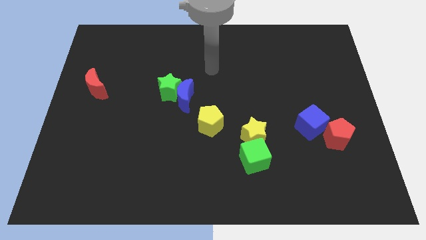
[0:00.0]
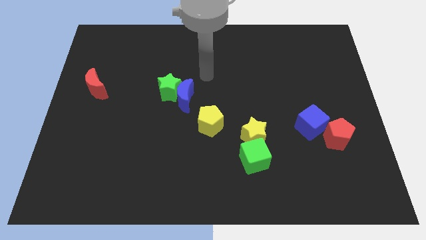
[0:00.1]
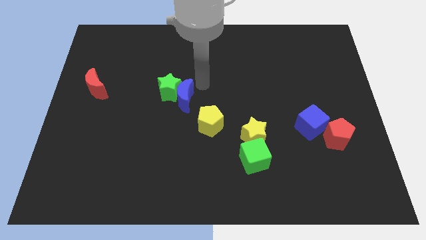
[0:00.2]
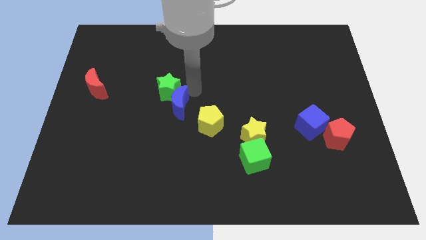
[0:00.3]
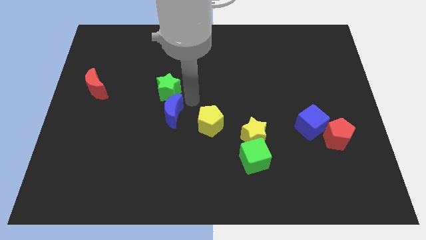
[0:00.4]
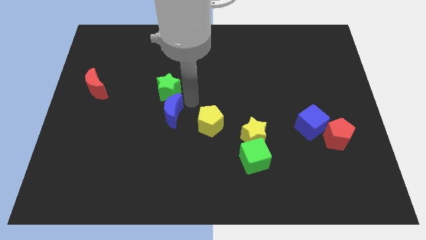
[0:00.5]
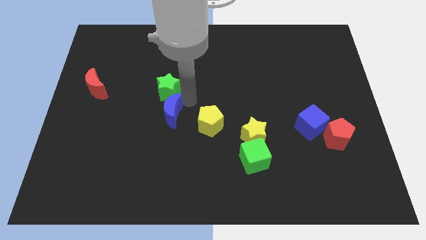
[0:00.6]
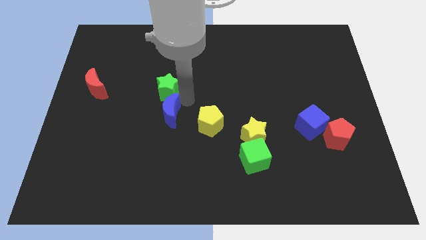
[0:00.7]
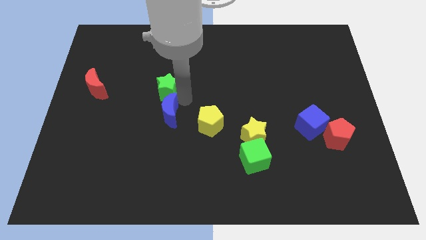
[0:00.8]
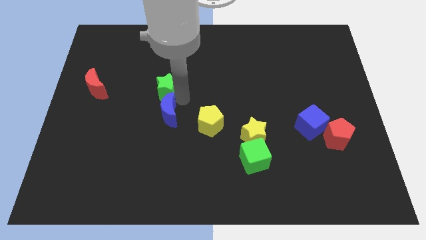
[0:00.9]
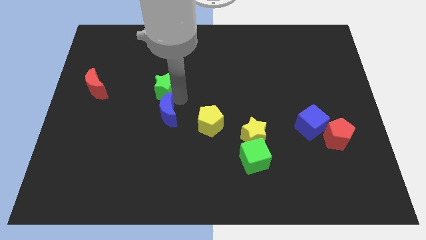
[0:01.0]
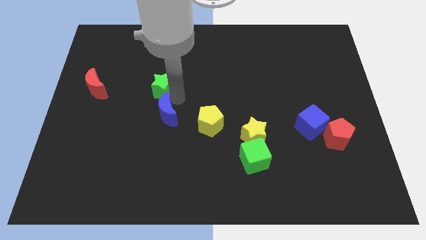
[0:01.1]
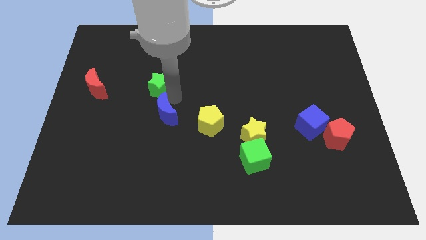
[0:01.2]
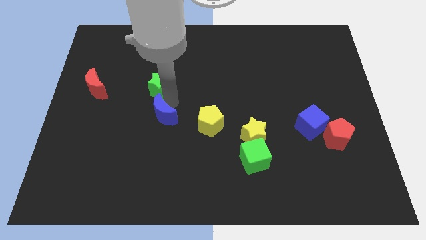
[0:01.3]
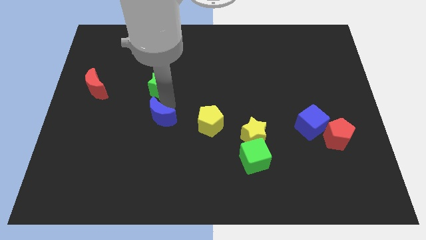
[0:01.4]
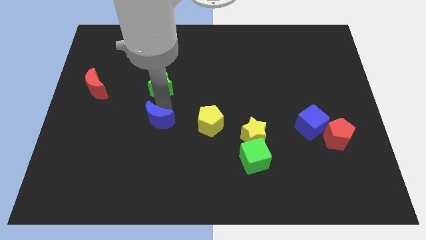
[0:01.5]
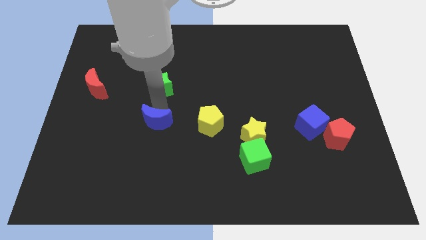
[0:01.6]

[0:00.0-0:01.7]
move the green star away from the blue moon

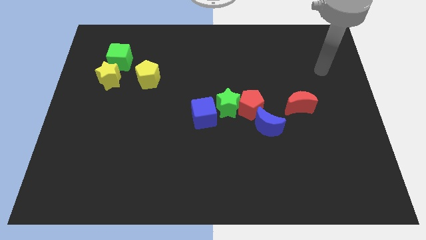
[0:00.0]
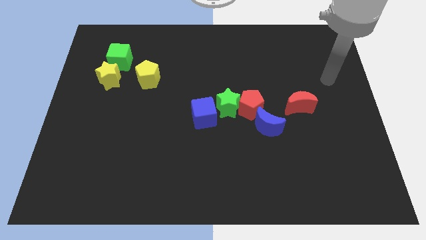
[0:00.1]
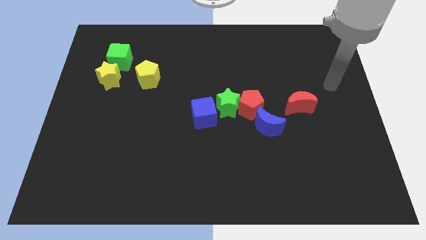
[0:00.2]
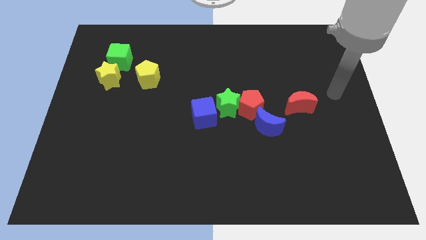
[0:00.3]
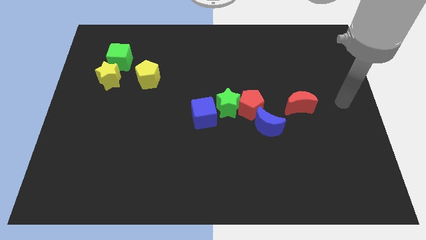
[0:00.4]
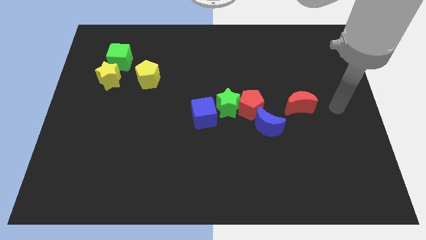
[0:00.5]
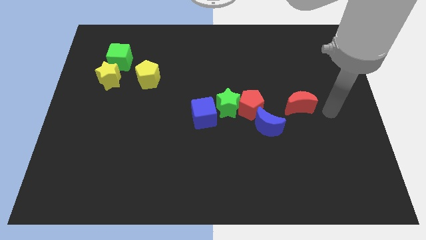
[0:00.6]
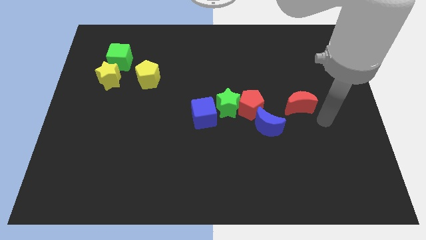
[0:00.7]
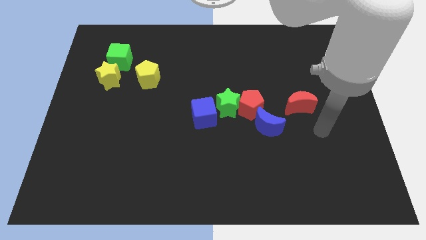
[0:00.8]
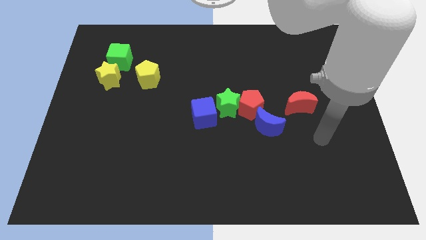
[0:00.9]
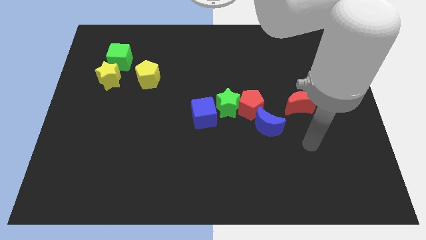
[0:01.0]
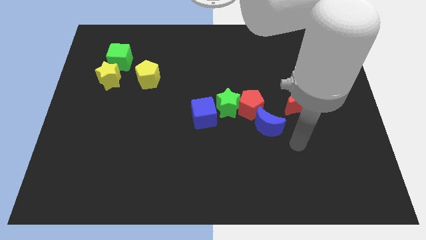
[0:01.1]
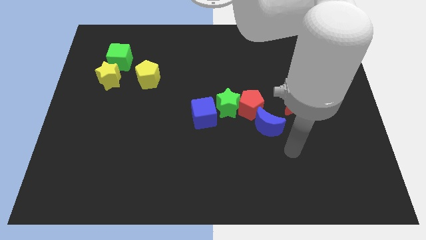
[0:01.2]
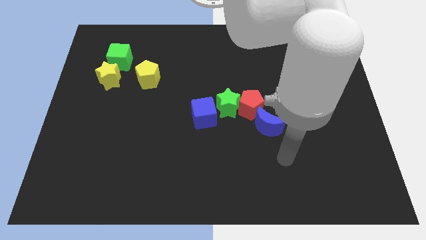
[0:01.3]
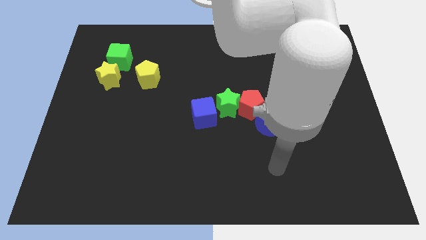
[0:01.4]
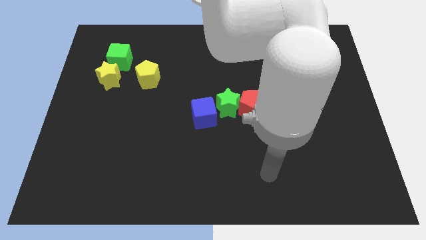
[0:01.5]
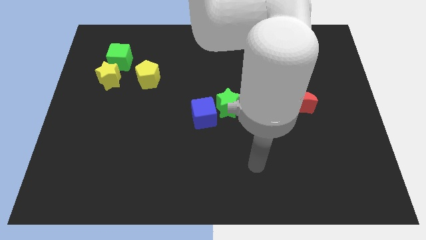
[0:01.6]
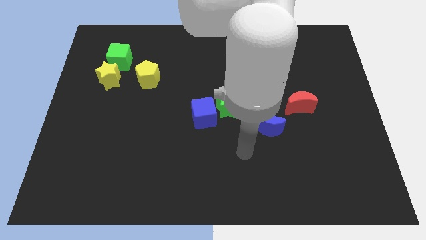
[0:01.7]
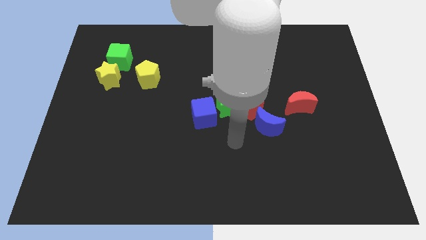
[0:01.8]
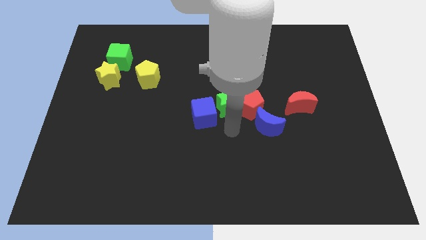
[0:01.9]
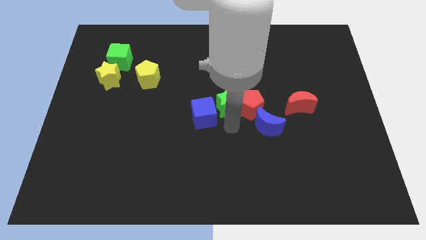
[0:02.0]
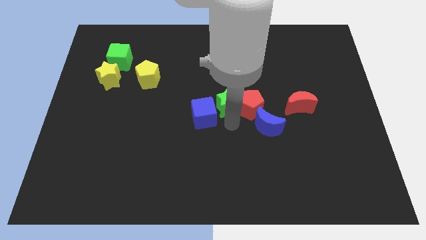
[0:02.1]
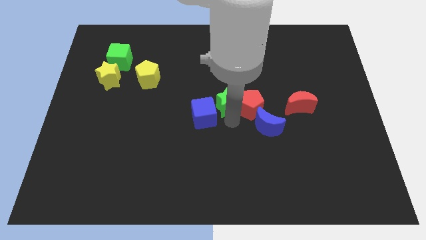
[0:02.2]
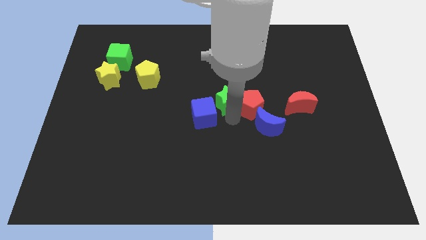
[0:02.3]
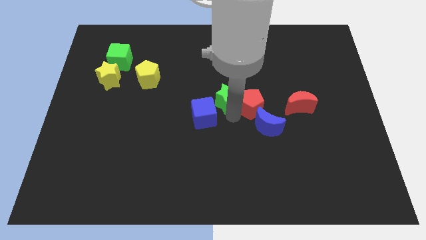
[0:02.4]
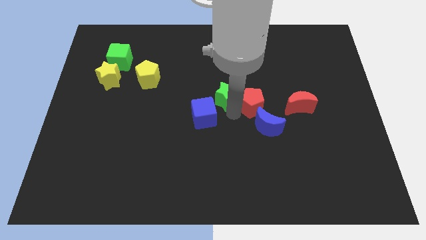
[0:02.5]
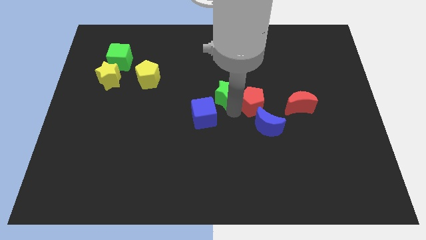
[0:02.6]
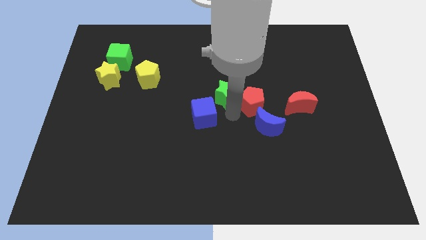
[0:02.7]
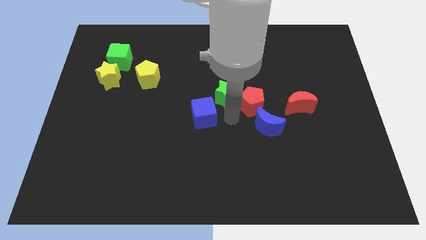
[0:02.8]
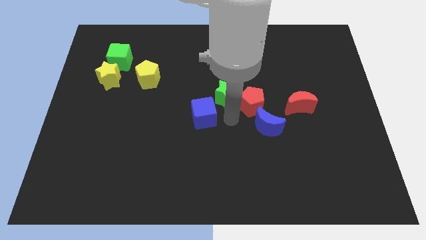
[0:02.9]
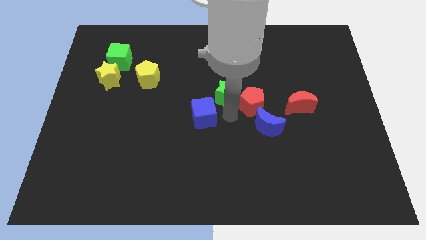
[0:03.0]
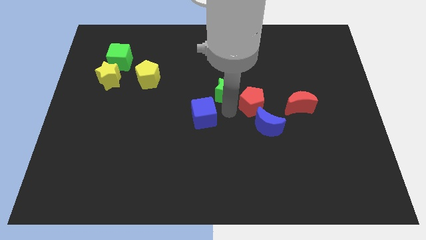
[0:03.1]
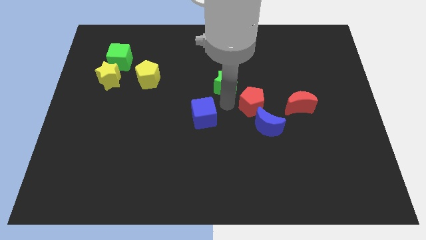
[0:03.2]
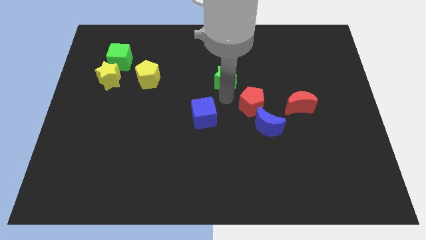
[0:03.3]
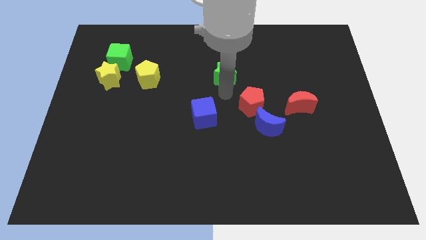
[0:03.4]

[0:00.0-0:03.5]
separate the green star from the red pentagon and blue cube

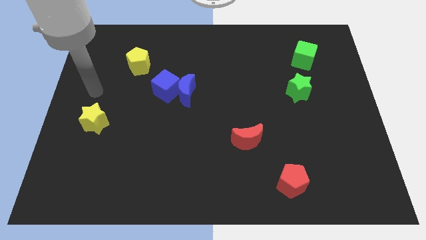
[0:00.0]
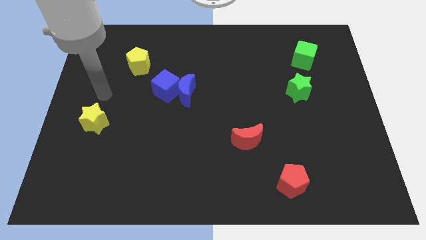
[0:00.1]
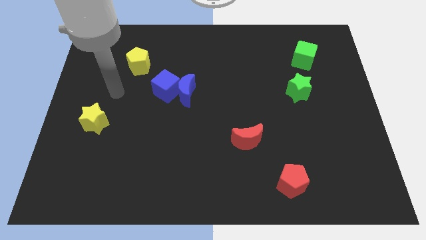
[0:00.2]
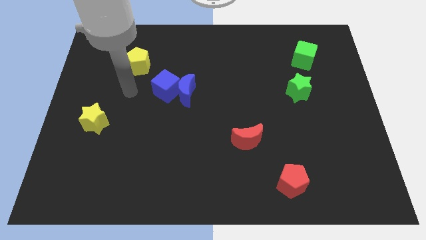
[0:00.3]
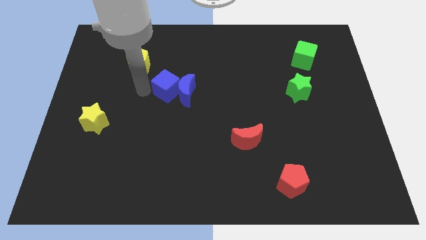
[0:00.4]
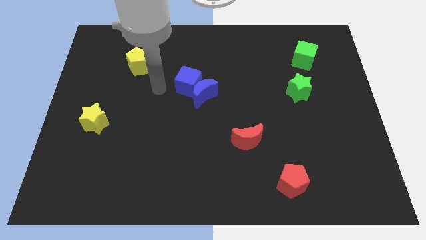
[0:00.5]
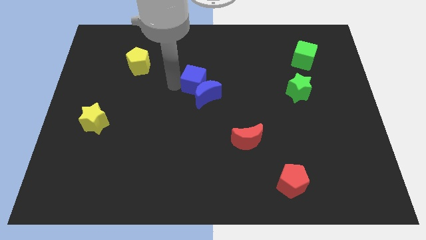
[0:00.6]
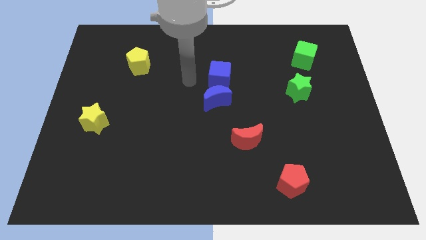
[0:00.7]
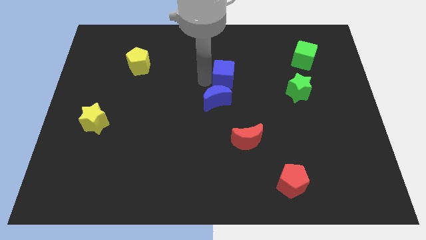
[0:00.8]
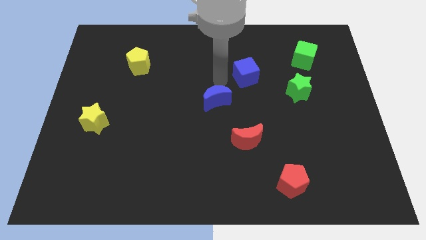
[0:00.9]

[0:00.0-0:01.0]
pull the blue moon apart from the blue cube

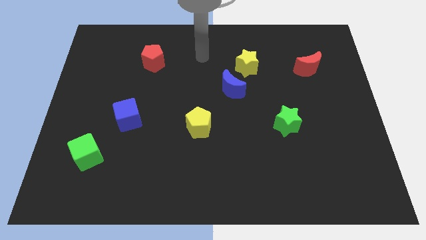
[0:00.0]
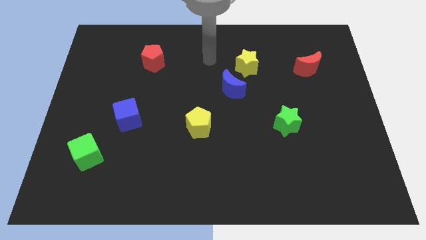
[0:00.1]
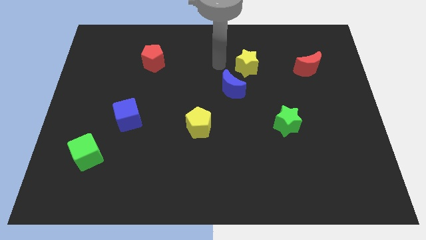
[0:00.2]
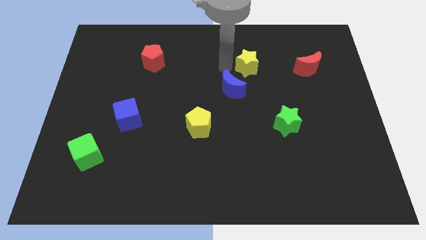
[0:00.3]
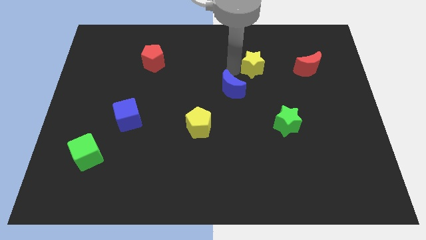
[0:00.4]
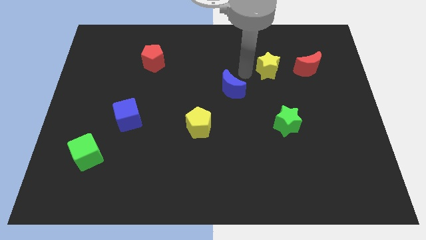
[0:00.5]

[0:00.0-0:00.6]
pull the blue moon apart from the yellow star

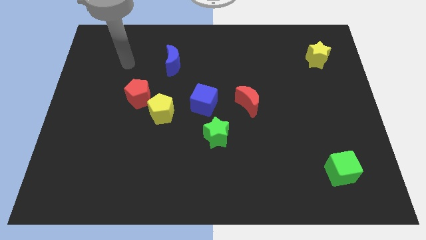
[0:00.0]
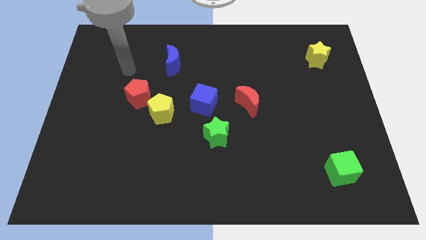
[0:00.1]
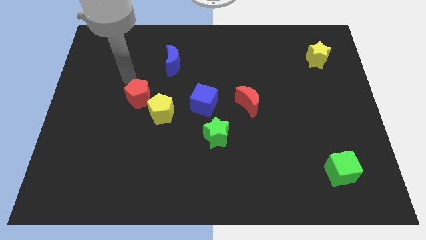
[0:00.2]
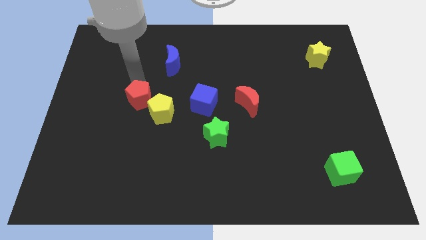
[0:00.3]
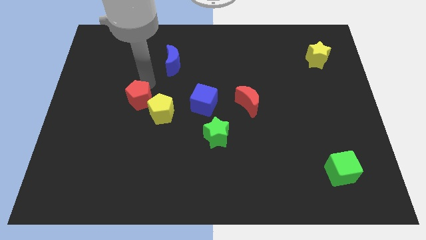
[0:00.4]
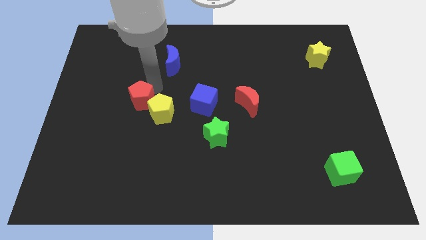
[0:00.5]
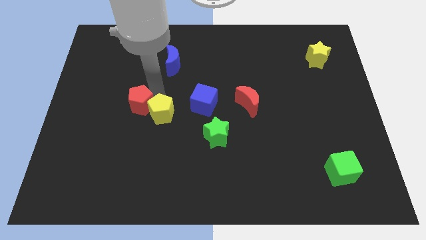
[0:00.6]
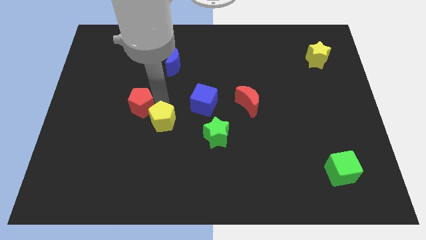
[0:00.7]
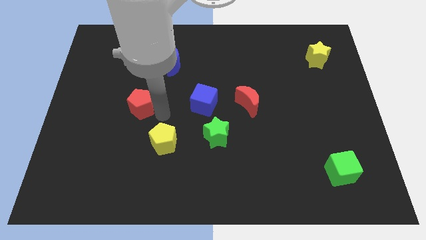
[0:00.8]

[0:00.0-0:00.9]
move the red pentagon away from the yellow pentagon

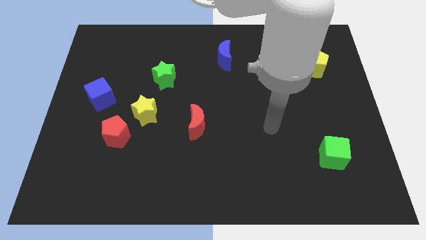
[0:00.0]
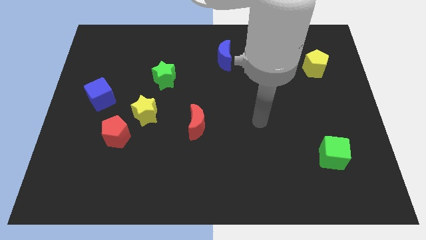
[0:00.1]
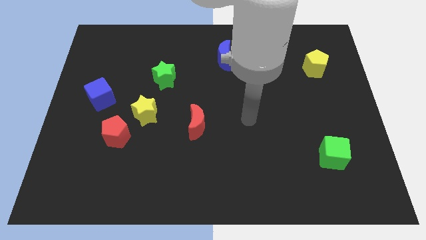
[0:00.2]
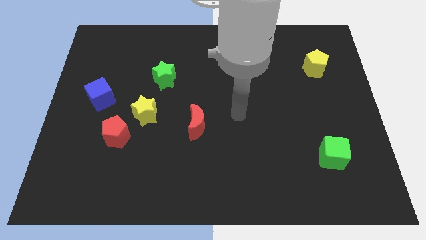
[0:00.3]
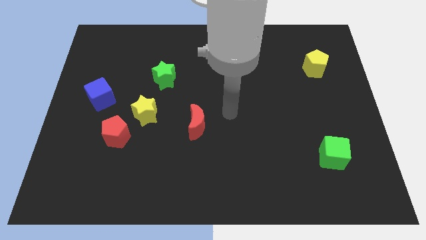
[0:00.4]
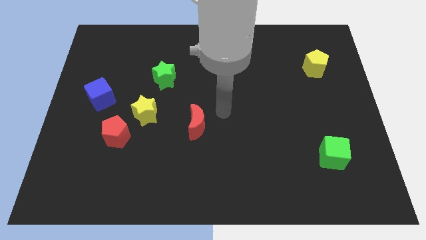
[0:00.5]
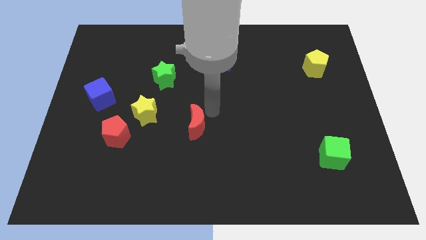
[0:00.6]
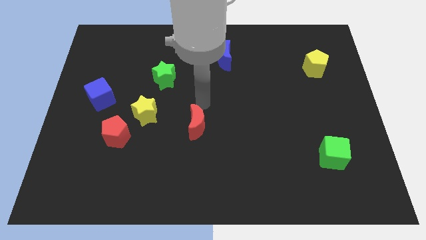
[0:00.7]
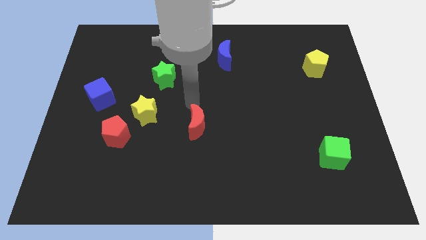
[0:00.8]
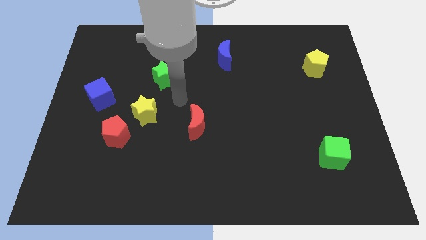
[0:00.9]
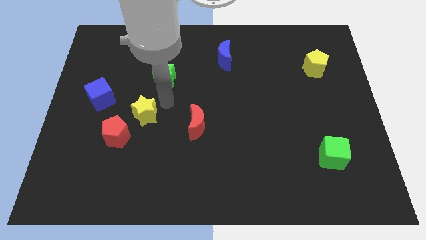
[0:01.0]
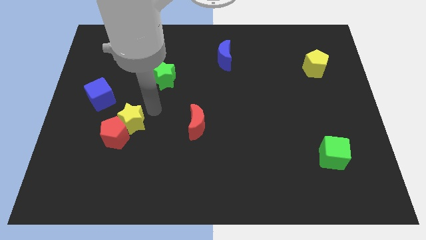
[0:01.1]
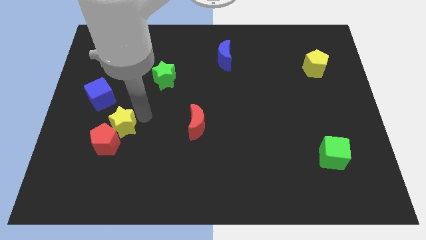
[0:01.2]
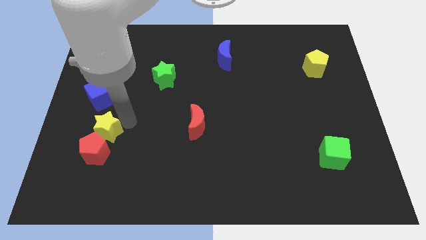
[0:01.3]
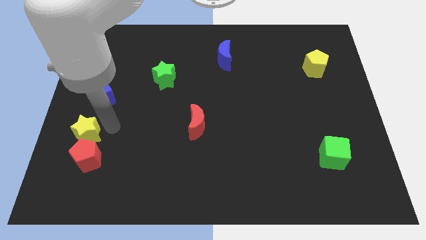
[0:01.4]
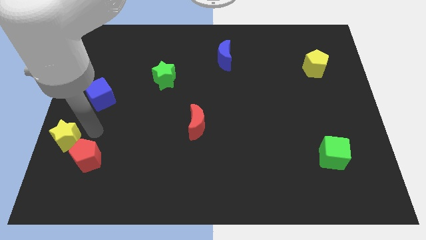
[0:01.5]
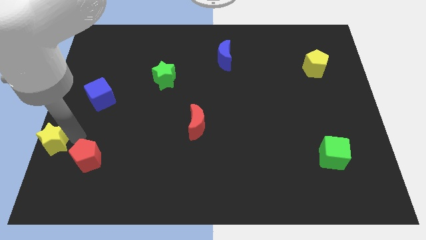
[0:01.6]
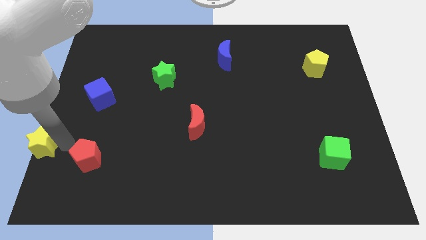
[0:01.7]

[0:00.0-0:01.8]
move the red pentagon away from the yellow star
